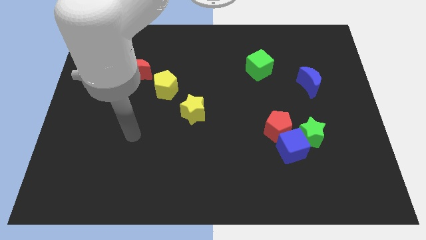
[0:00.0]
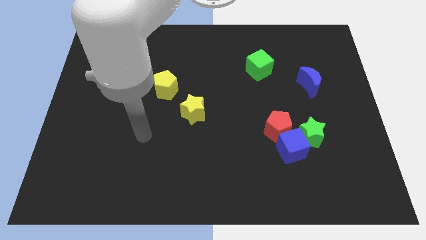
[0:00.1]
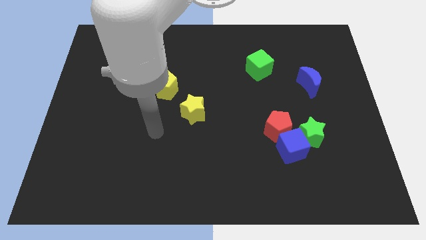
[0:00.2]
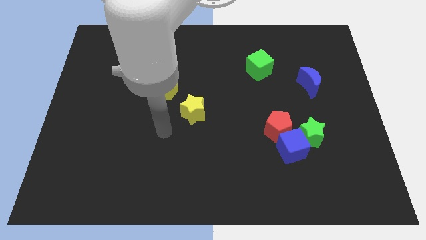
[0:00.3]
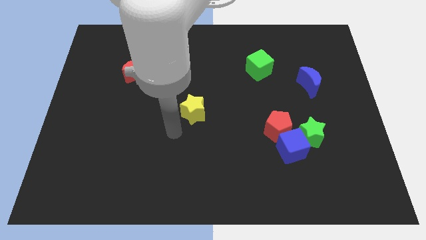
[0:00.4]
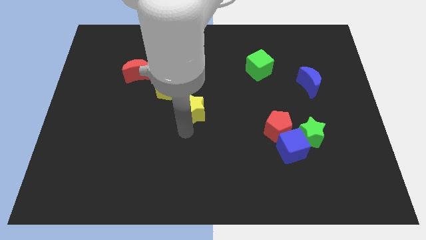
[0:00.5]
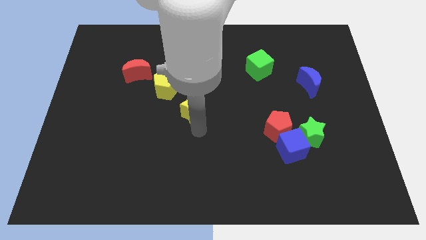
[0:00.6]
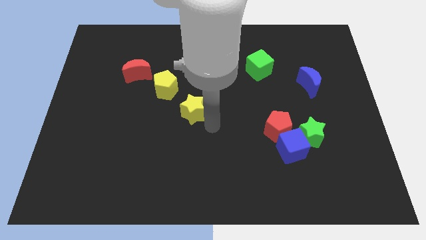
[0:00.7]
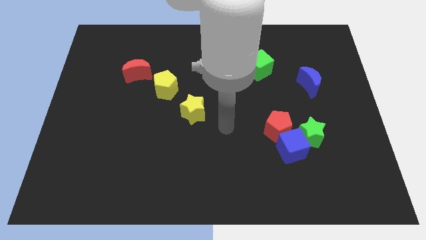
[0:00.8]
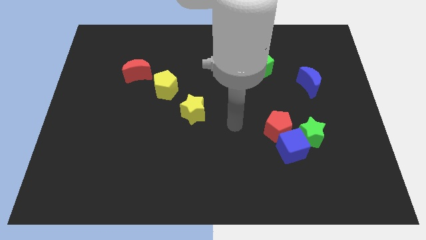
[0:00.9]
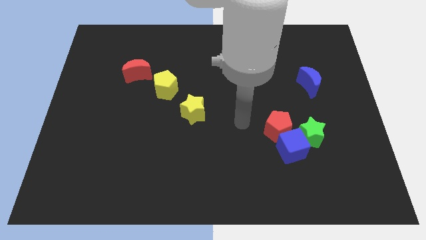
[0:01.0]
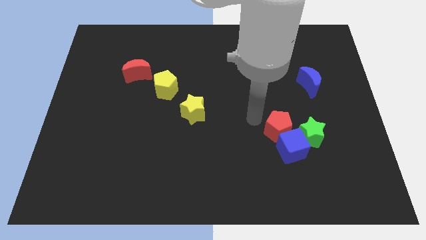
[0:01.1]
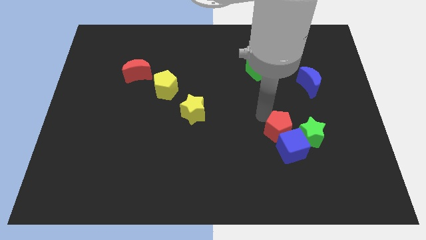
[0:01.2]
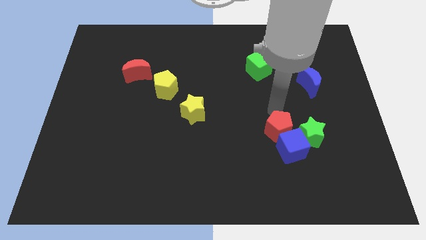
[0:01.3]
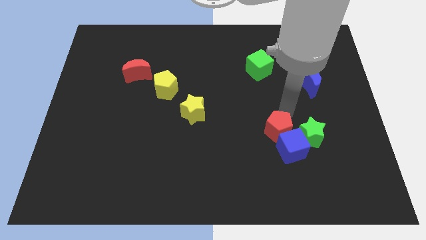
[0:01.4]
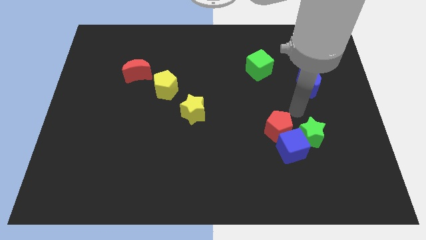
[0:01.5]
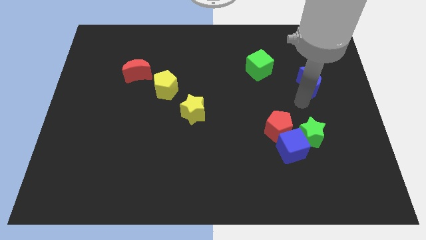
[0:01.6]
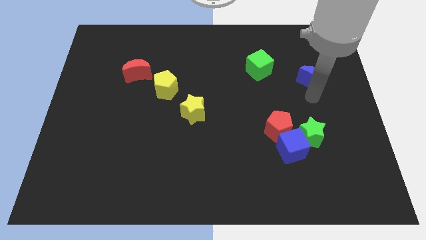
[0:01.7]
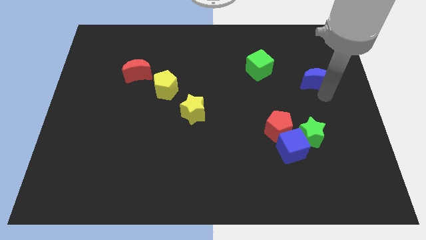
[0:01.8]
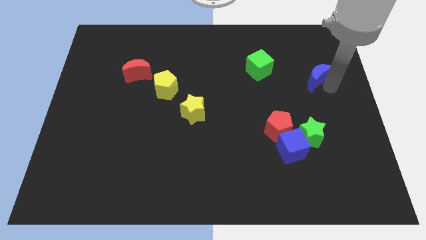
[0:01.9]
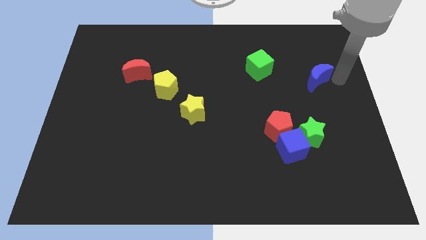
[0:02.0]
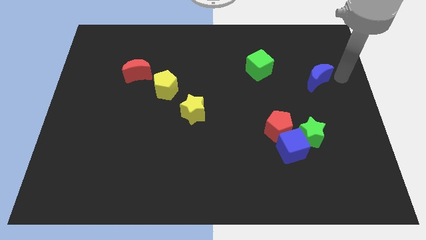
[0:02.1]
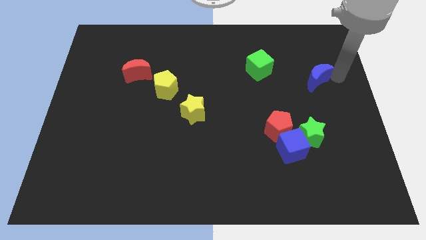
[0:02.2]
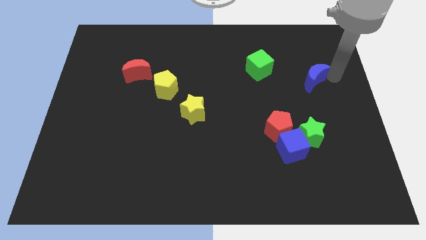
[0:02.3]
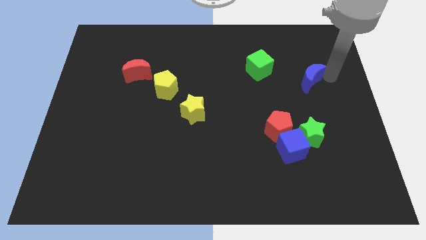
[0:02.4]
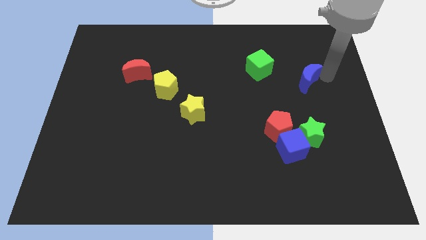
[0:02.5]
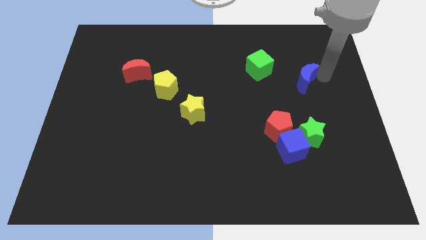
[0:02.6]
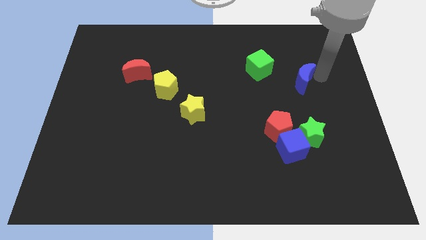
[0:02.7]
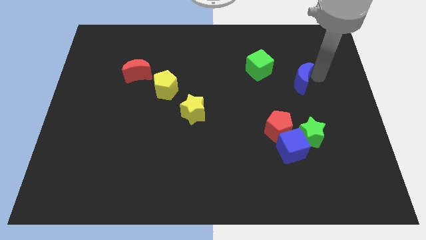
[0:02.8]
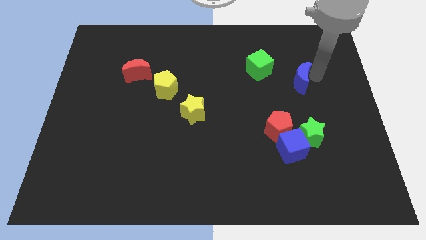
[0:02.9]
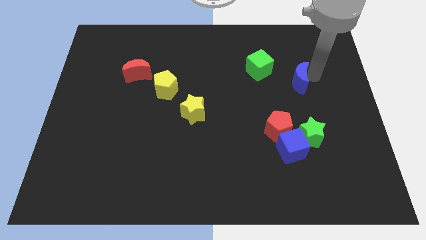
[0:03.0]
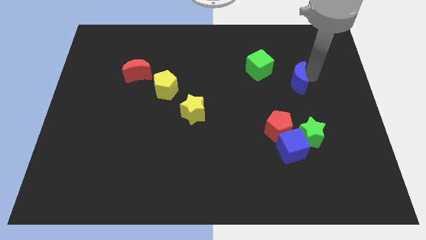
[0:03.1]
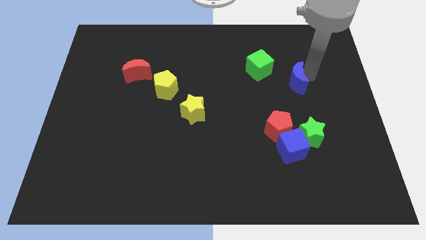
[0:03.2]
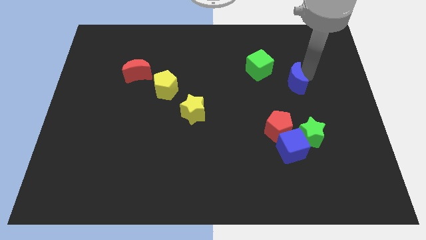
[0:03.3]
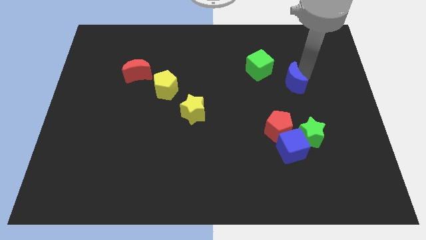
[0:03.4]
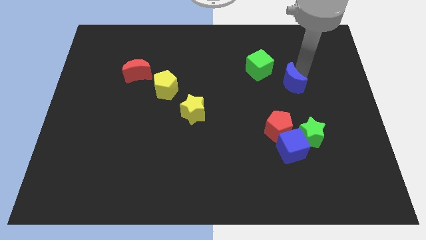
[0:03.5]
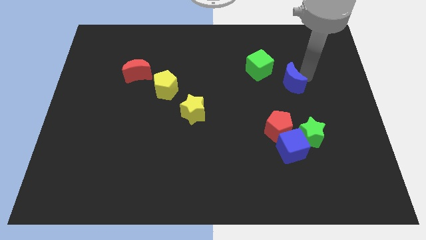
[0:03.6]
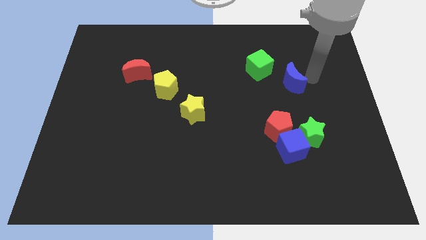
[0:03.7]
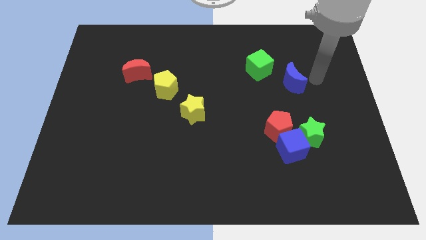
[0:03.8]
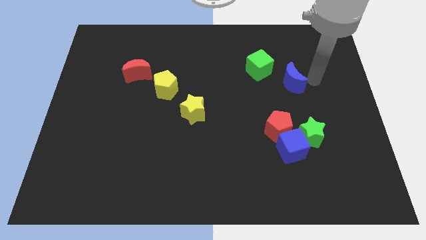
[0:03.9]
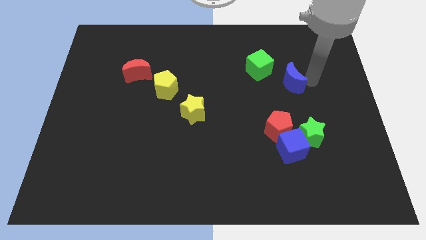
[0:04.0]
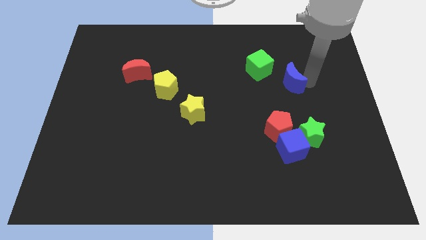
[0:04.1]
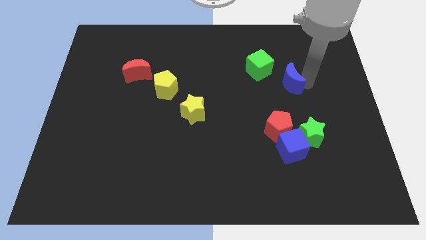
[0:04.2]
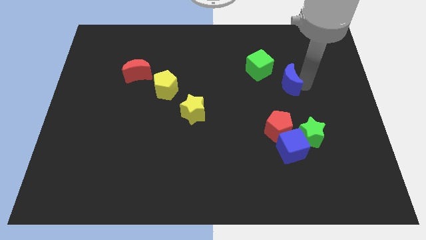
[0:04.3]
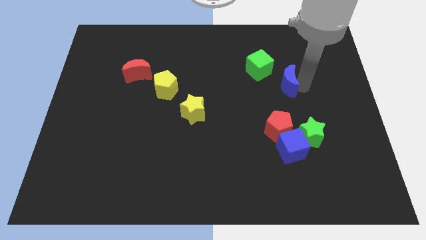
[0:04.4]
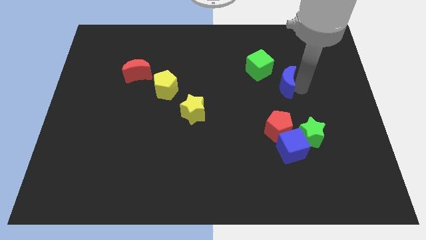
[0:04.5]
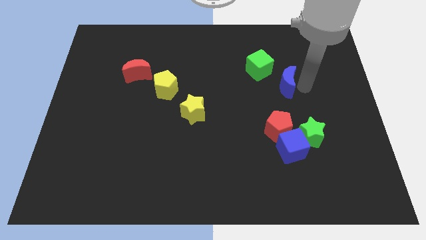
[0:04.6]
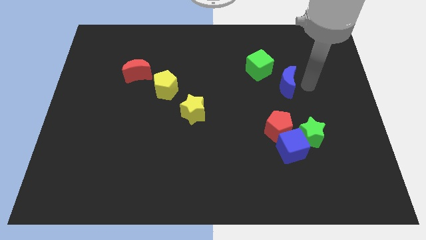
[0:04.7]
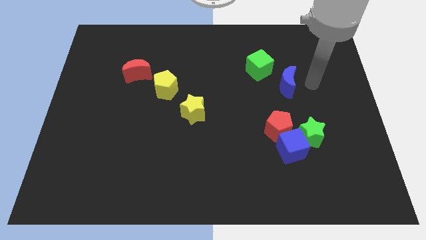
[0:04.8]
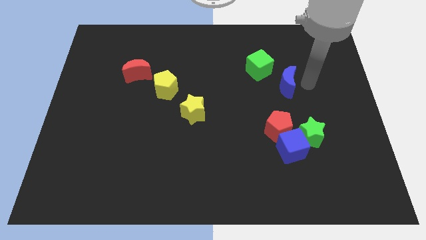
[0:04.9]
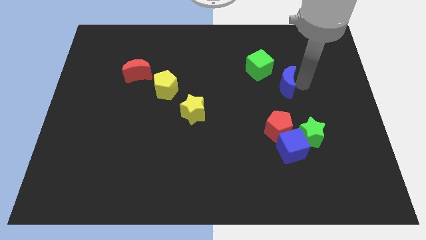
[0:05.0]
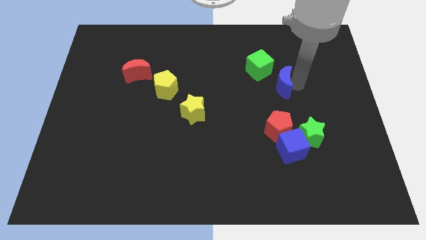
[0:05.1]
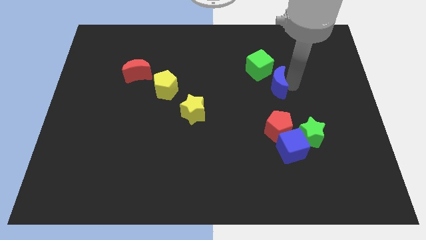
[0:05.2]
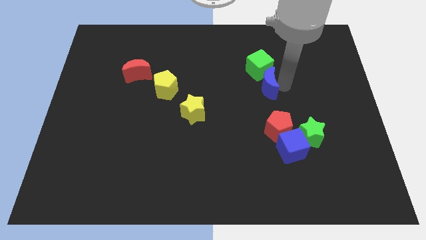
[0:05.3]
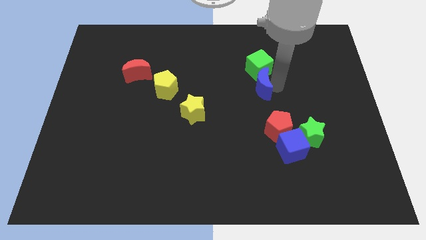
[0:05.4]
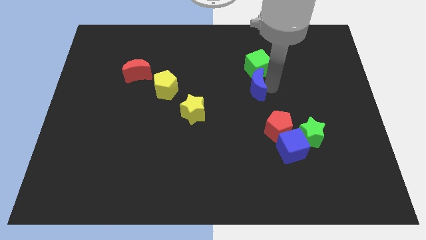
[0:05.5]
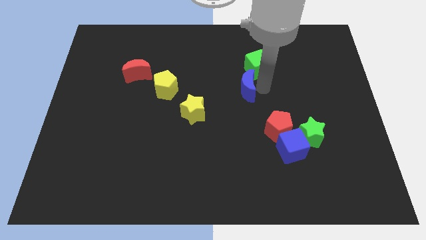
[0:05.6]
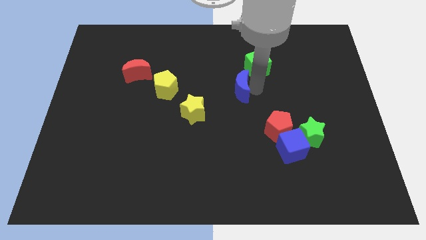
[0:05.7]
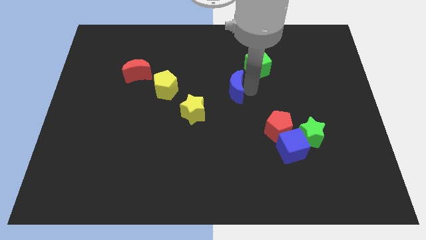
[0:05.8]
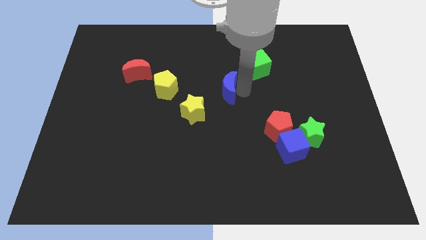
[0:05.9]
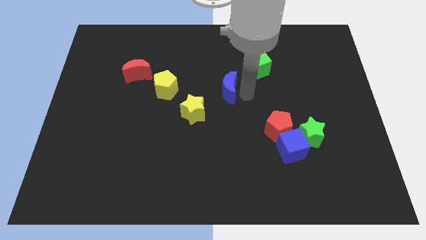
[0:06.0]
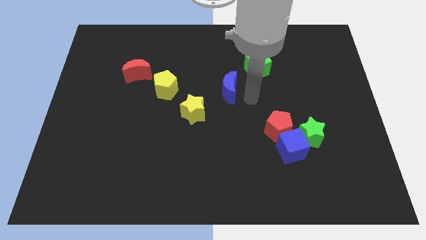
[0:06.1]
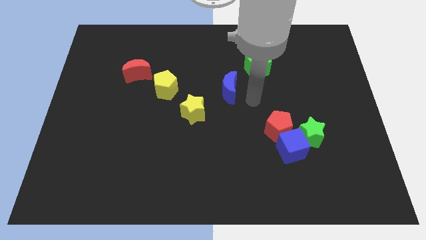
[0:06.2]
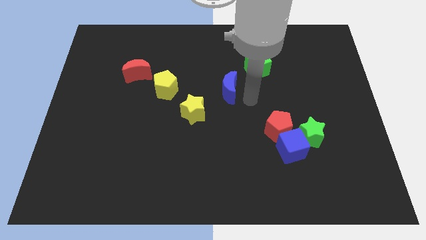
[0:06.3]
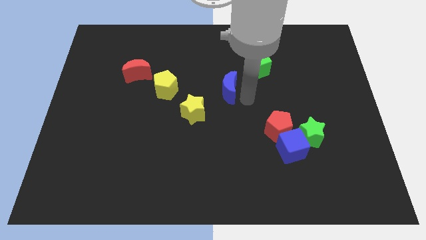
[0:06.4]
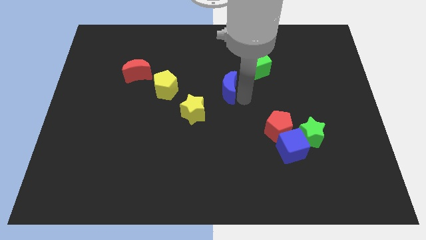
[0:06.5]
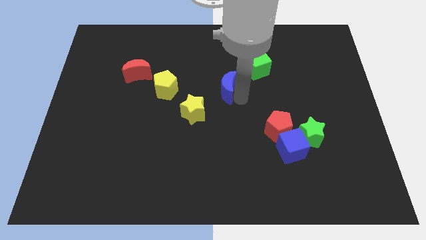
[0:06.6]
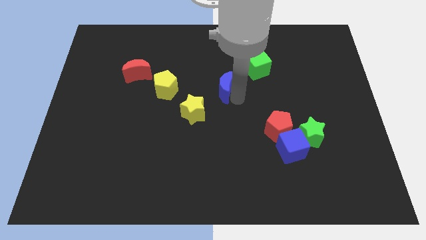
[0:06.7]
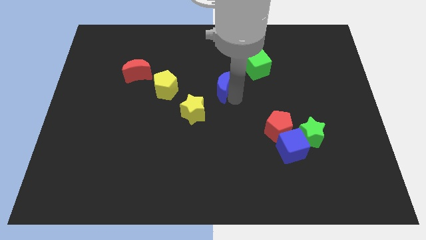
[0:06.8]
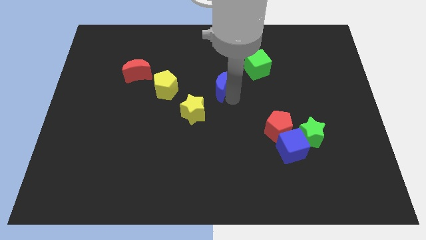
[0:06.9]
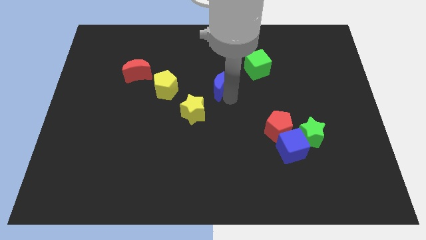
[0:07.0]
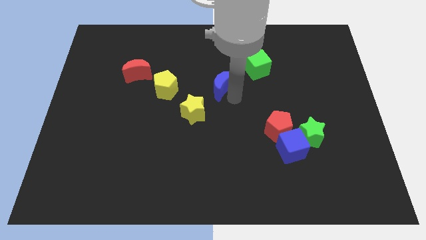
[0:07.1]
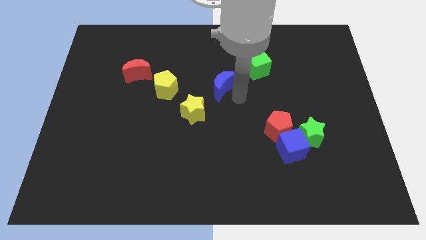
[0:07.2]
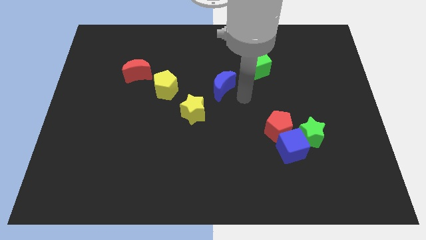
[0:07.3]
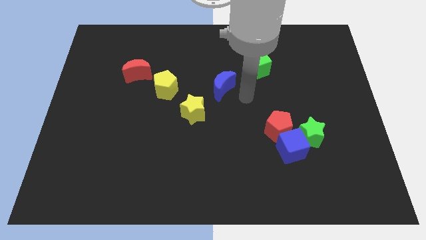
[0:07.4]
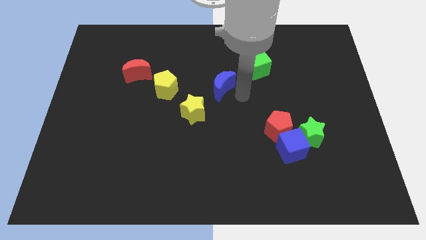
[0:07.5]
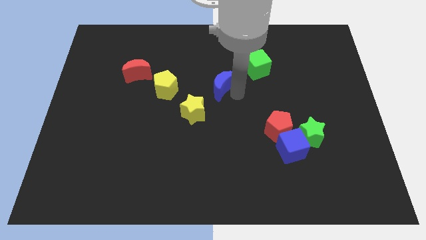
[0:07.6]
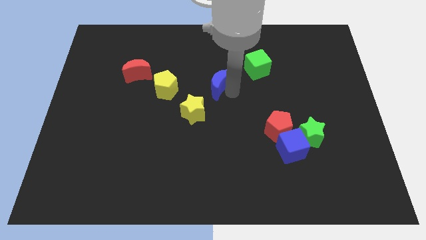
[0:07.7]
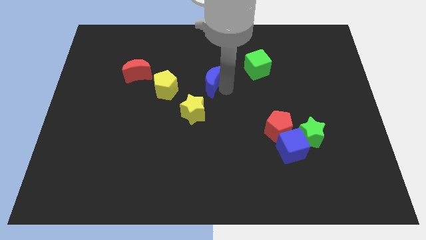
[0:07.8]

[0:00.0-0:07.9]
push the blue moon to the top side of the yellow star
